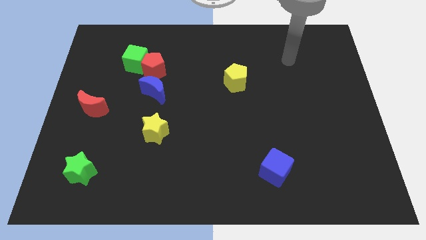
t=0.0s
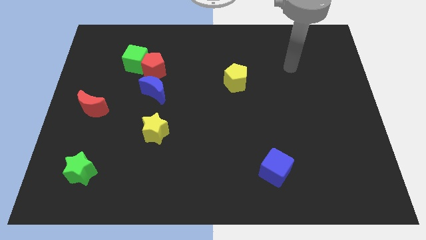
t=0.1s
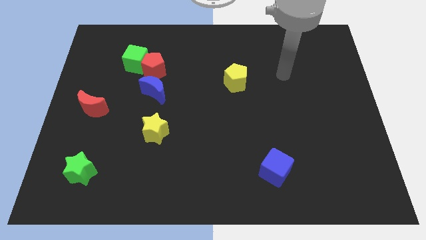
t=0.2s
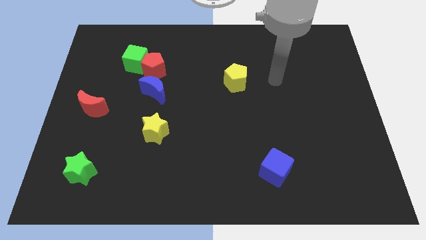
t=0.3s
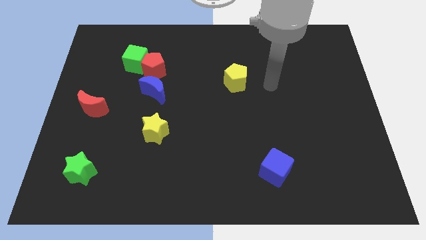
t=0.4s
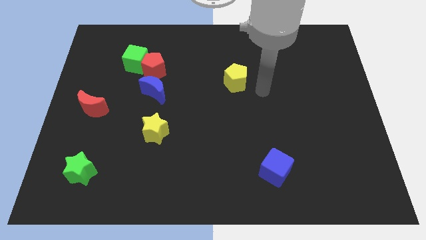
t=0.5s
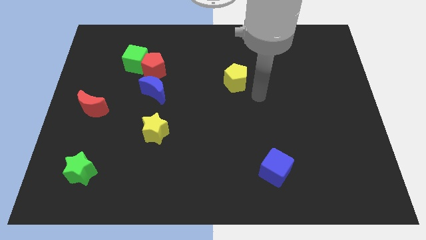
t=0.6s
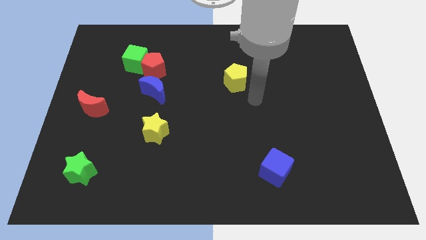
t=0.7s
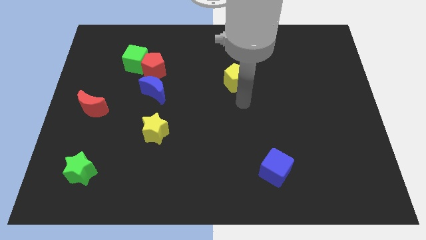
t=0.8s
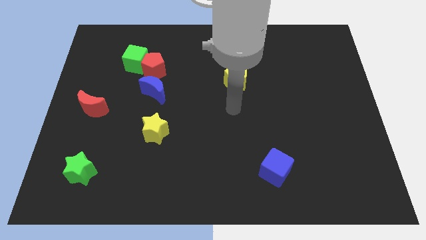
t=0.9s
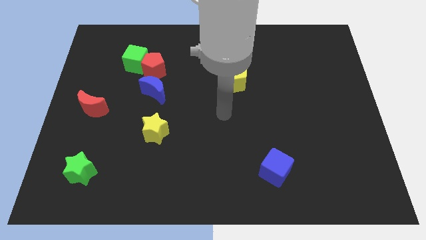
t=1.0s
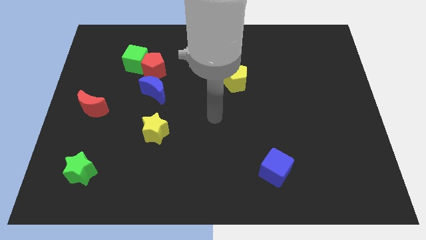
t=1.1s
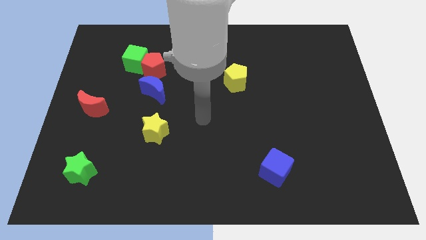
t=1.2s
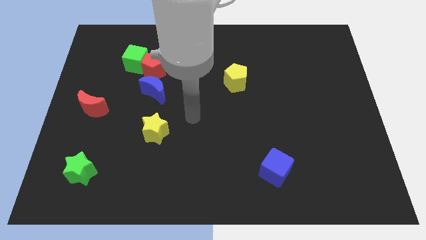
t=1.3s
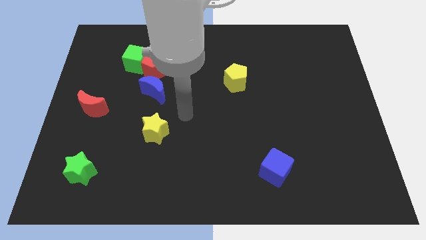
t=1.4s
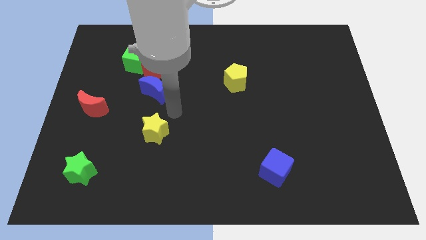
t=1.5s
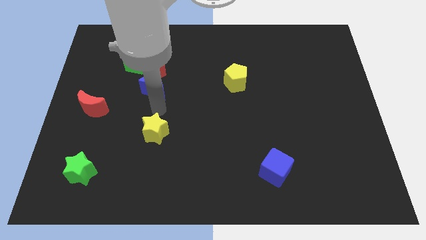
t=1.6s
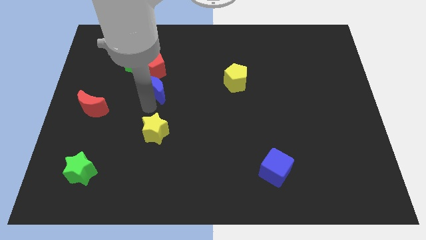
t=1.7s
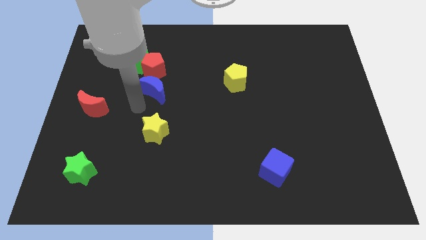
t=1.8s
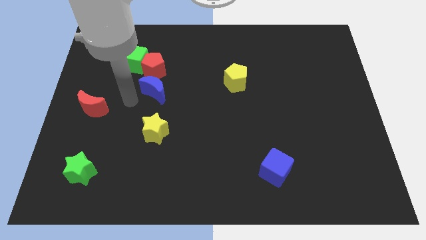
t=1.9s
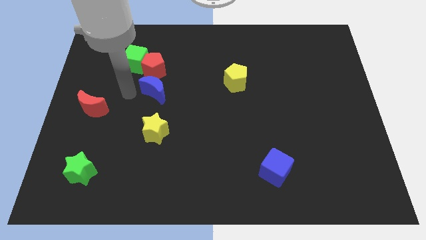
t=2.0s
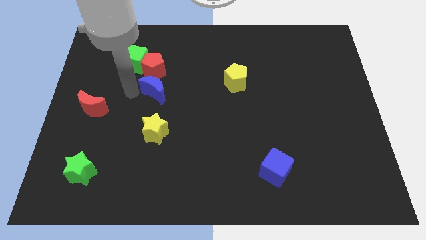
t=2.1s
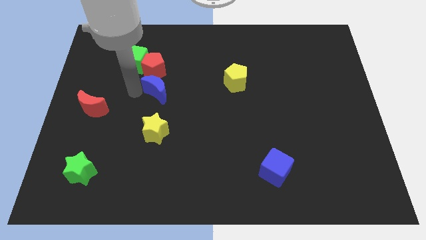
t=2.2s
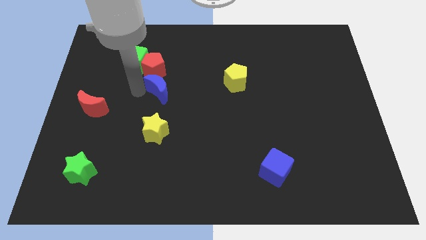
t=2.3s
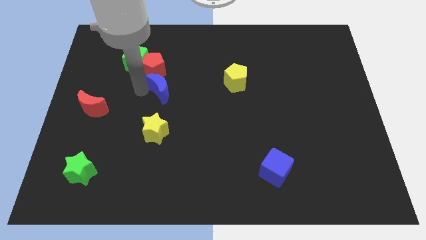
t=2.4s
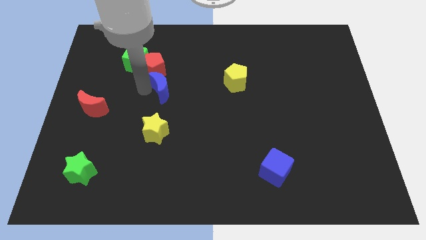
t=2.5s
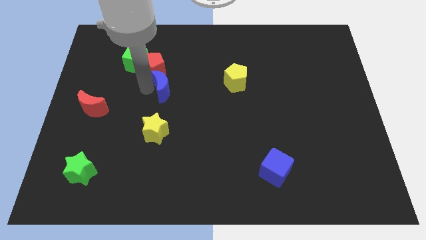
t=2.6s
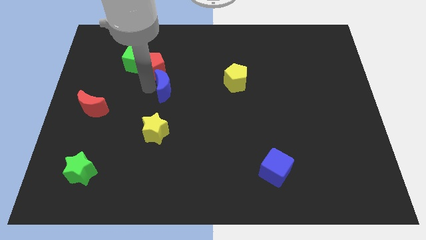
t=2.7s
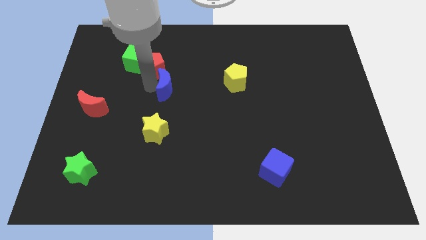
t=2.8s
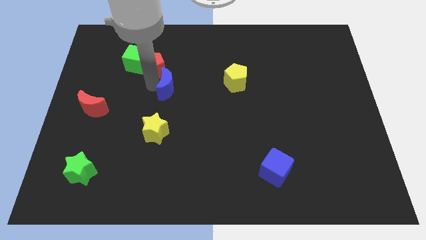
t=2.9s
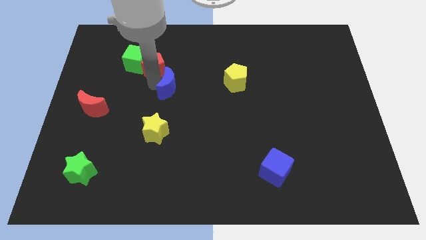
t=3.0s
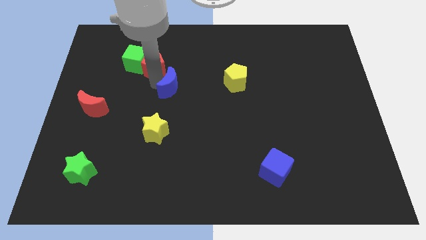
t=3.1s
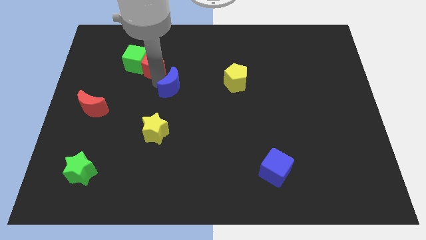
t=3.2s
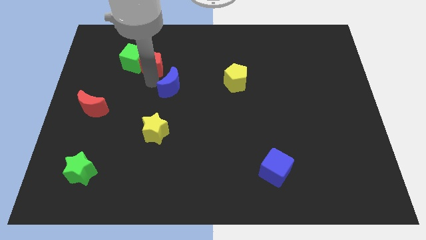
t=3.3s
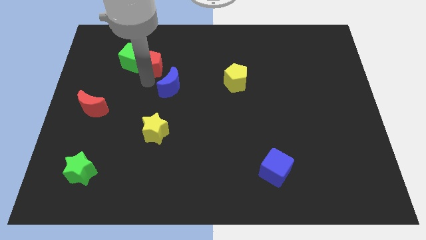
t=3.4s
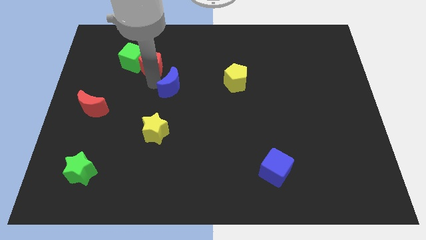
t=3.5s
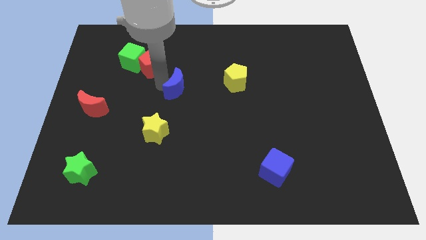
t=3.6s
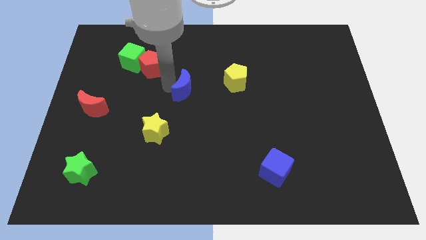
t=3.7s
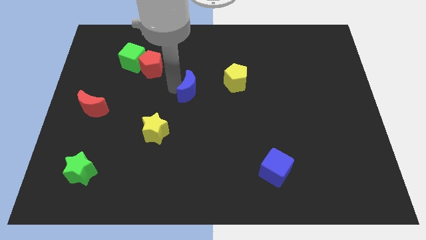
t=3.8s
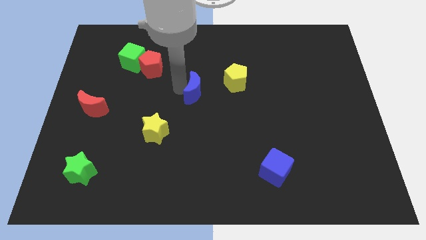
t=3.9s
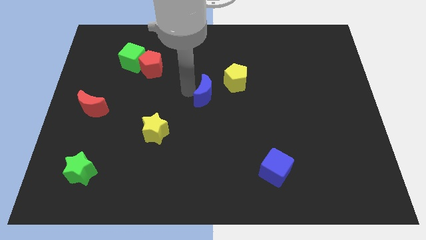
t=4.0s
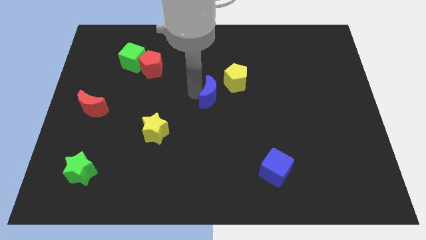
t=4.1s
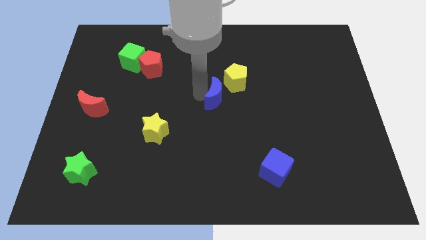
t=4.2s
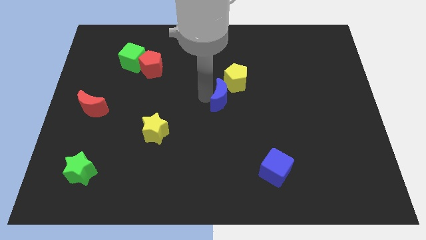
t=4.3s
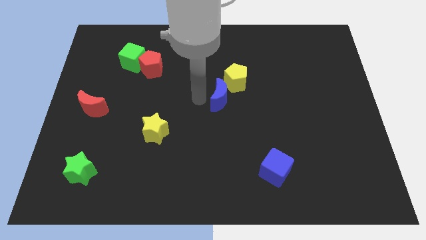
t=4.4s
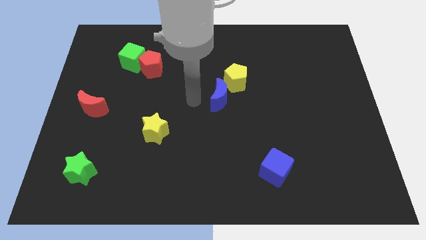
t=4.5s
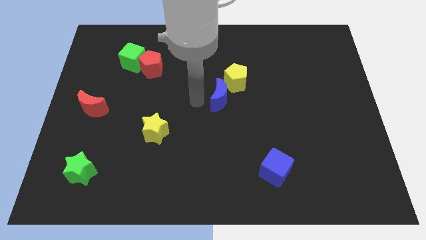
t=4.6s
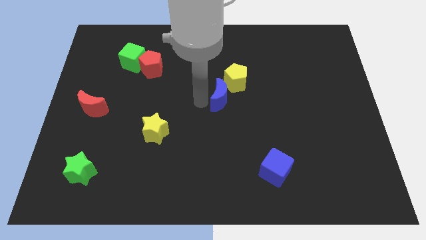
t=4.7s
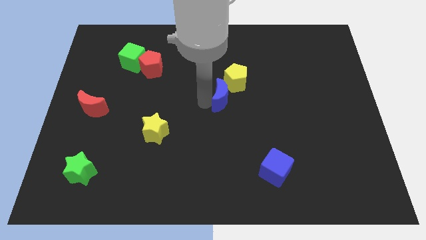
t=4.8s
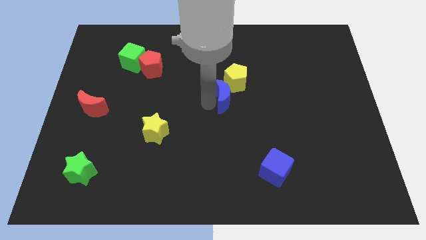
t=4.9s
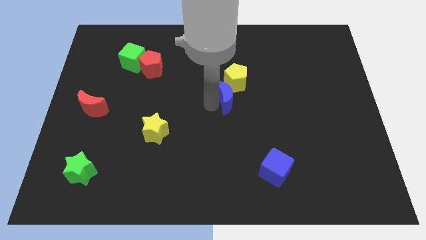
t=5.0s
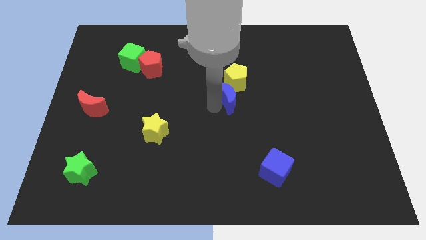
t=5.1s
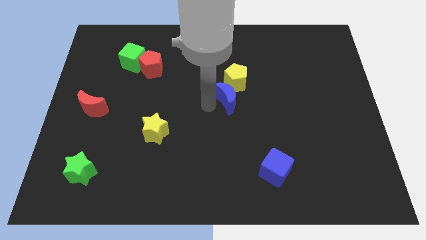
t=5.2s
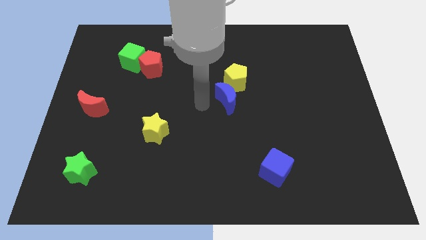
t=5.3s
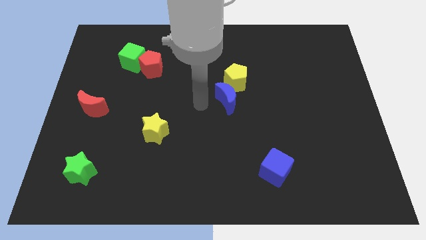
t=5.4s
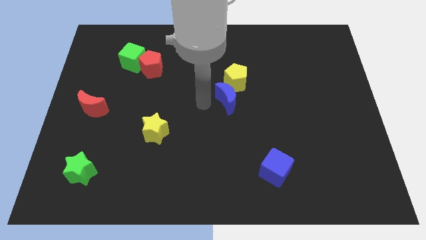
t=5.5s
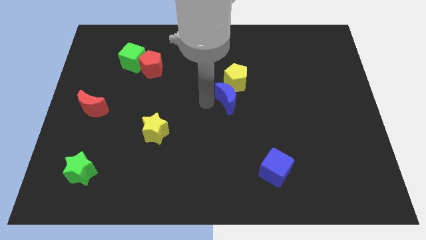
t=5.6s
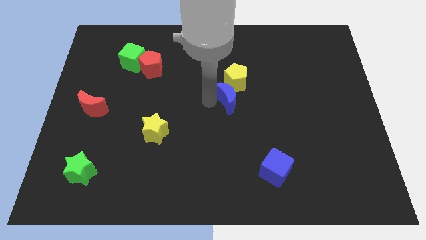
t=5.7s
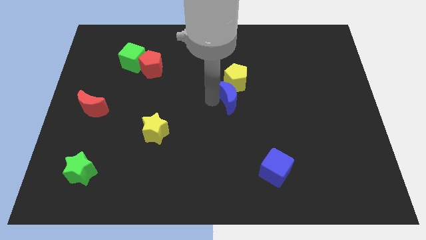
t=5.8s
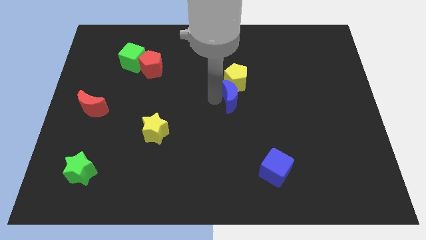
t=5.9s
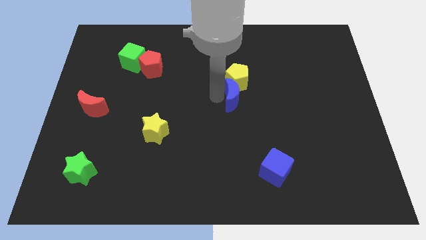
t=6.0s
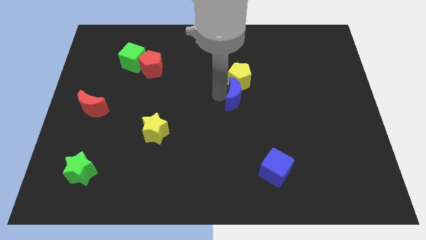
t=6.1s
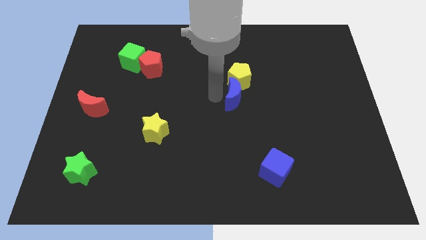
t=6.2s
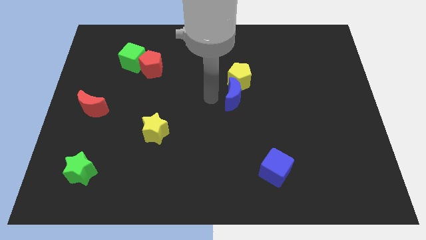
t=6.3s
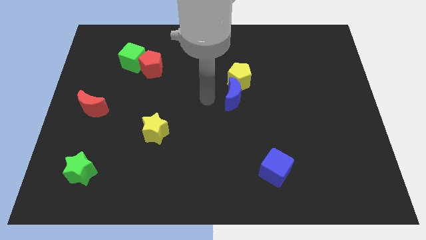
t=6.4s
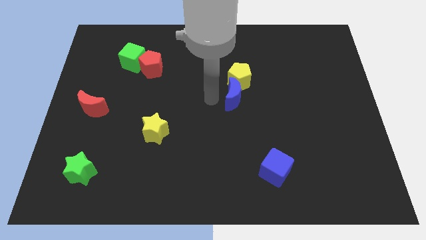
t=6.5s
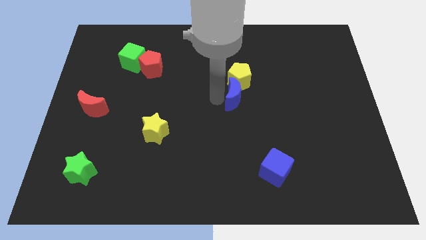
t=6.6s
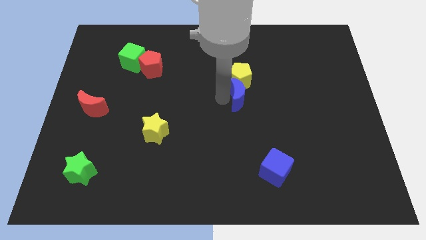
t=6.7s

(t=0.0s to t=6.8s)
slide the blue moon to the right

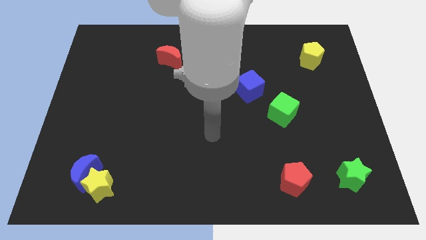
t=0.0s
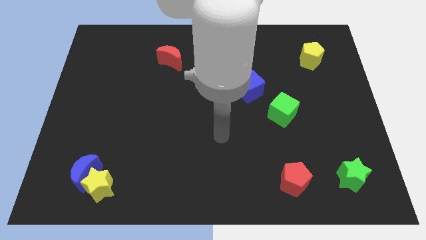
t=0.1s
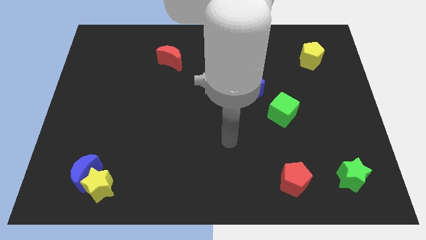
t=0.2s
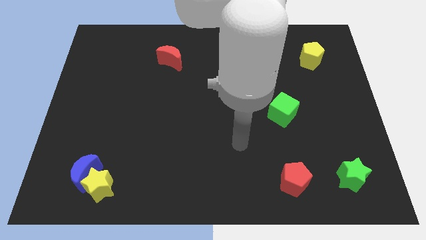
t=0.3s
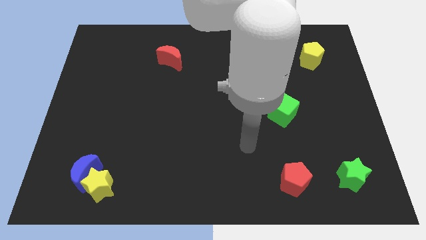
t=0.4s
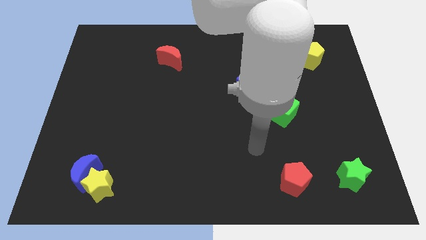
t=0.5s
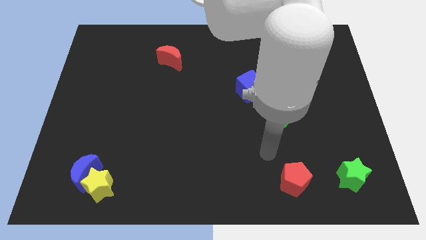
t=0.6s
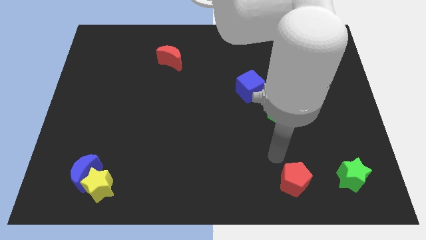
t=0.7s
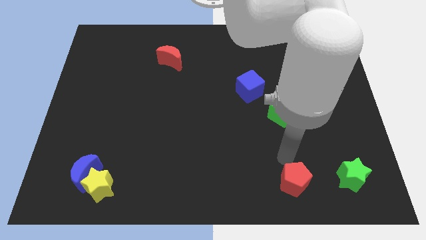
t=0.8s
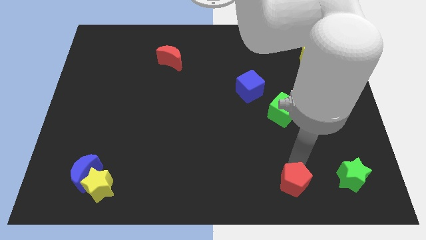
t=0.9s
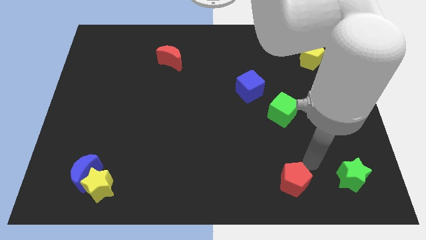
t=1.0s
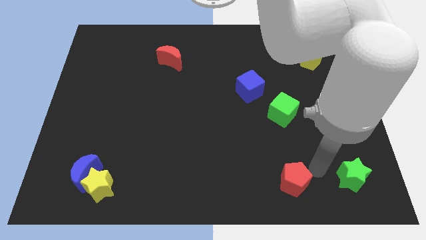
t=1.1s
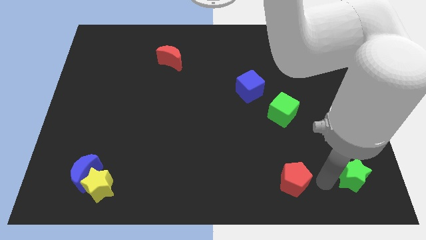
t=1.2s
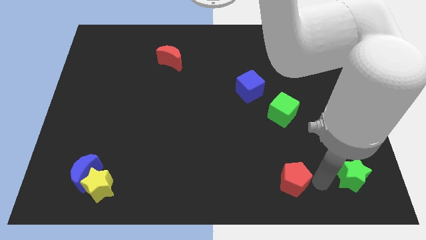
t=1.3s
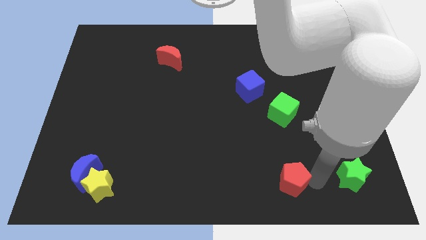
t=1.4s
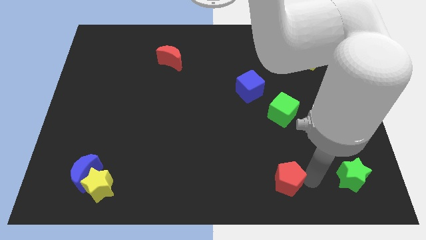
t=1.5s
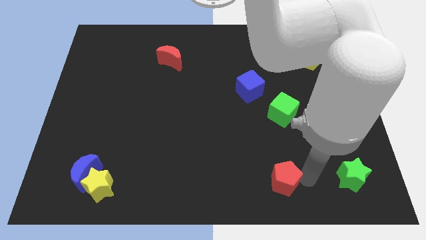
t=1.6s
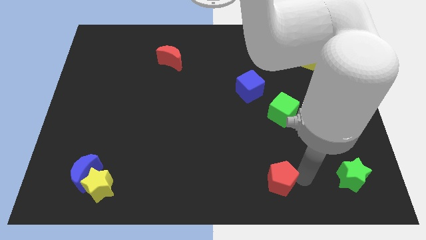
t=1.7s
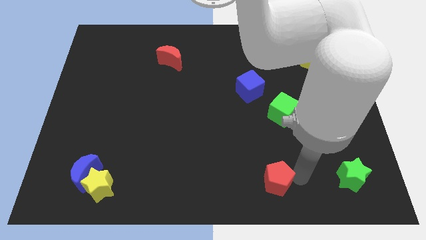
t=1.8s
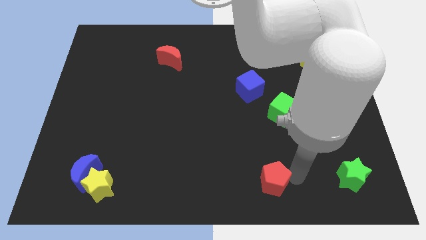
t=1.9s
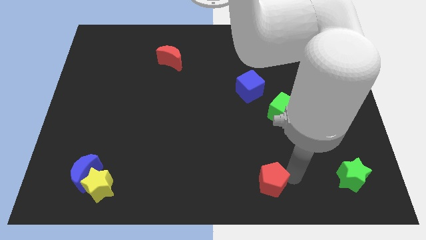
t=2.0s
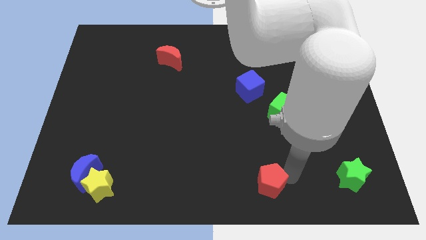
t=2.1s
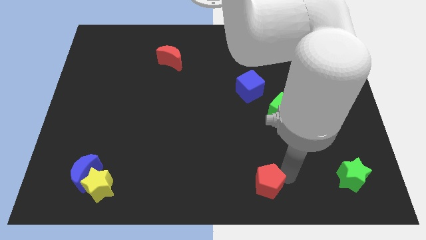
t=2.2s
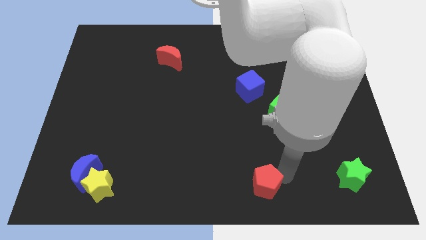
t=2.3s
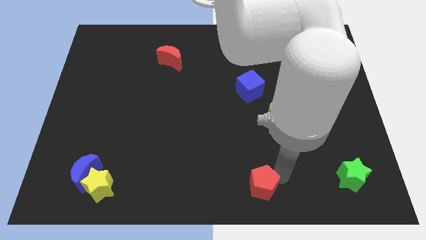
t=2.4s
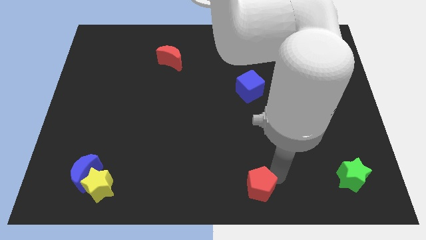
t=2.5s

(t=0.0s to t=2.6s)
move the red pentagon to the left somewhat
